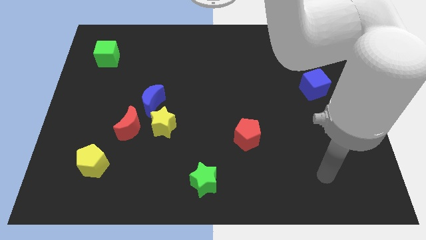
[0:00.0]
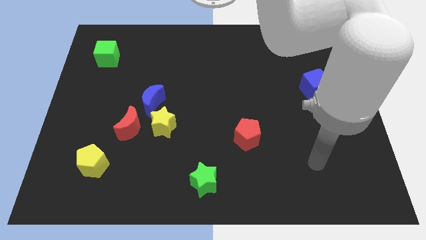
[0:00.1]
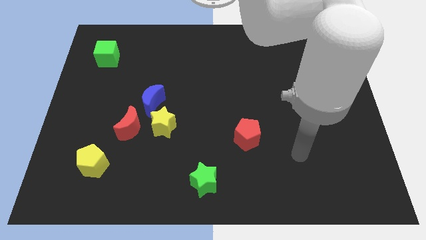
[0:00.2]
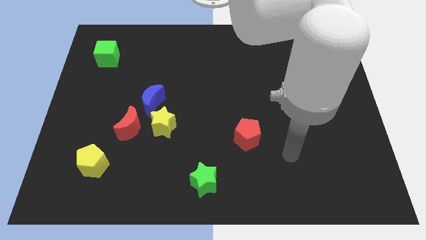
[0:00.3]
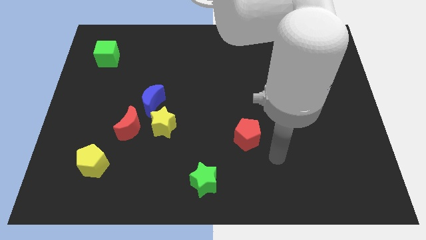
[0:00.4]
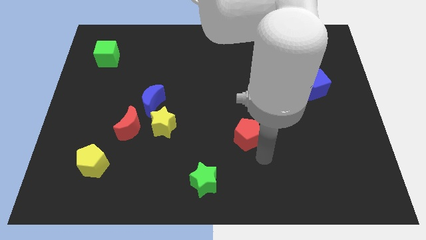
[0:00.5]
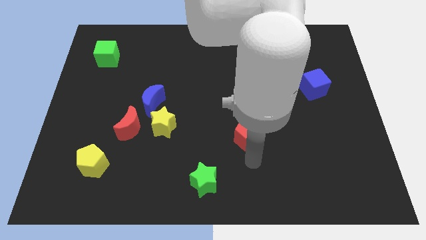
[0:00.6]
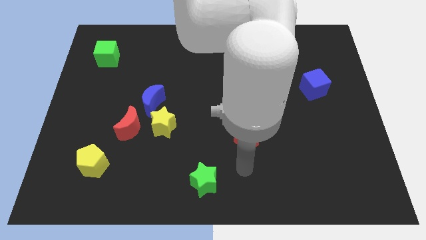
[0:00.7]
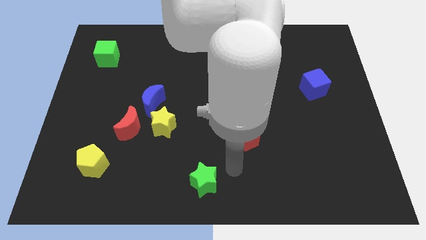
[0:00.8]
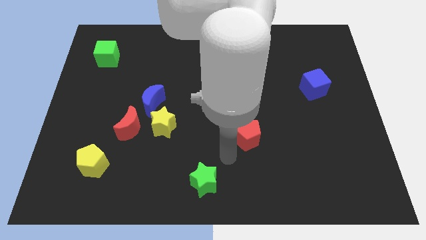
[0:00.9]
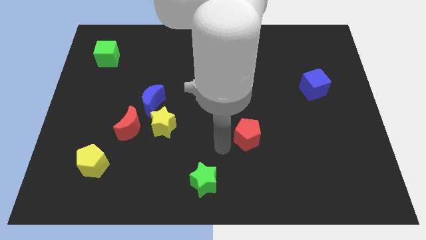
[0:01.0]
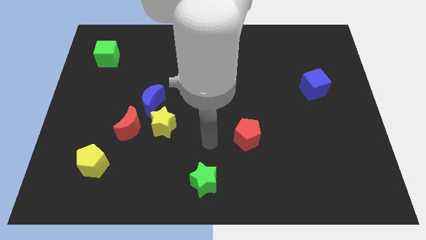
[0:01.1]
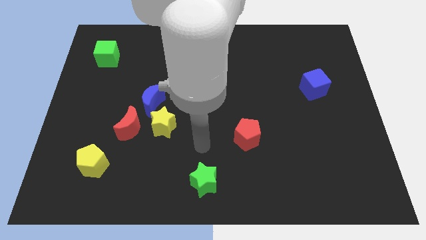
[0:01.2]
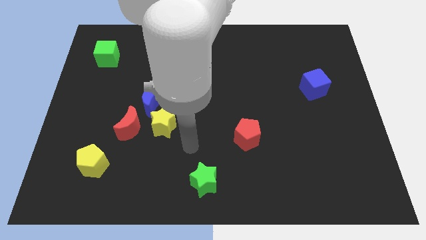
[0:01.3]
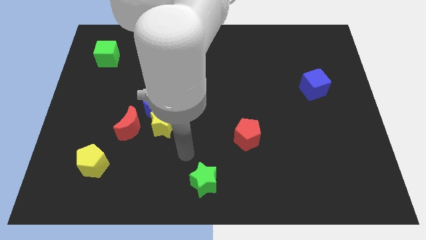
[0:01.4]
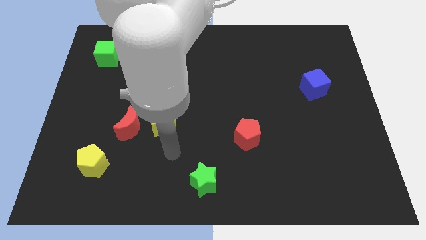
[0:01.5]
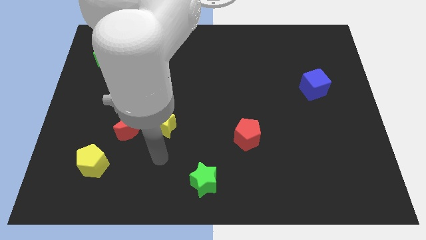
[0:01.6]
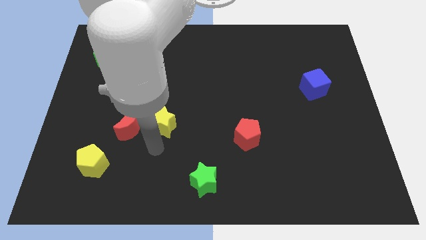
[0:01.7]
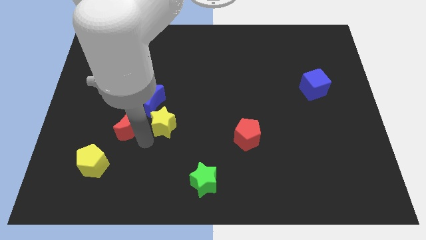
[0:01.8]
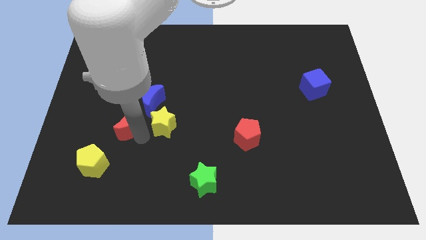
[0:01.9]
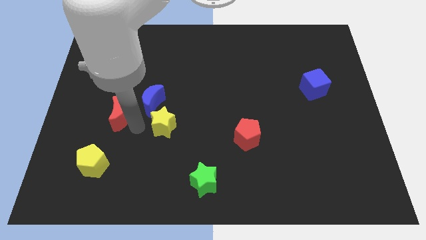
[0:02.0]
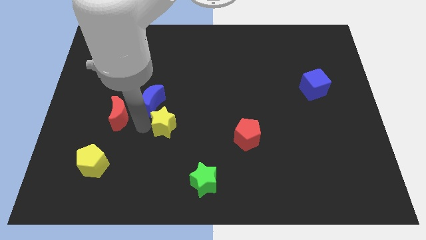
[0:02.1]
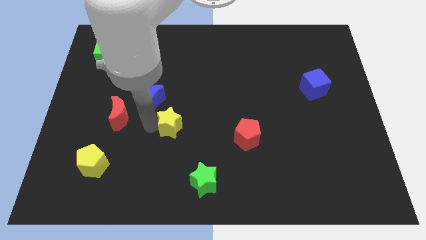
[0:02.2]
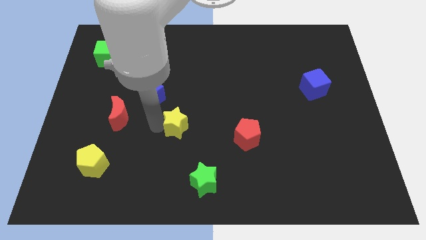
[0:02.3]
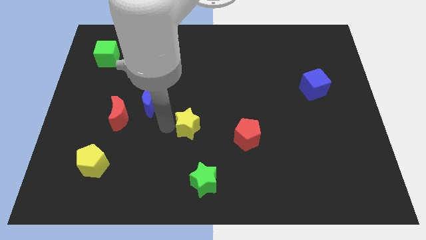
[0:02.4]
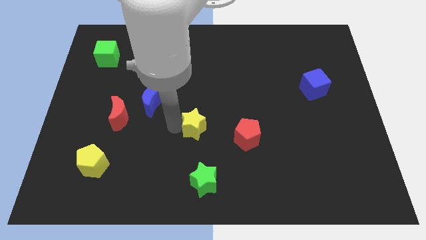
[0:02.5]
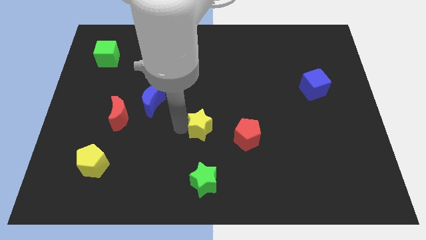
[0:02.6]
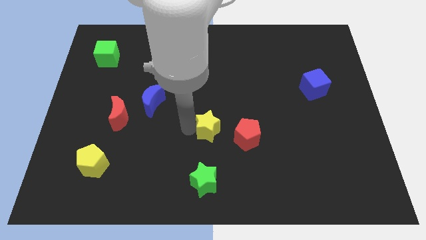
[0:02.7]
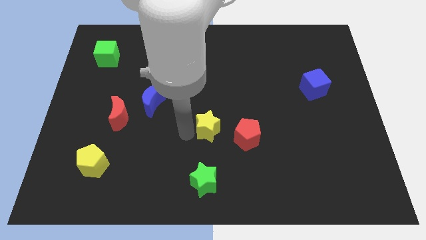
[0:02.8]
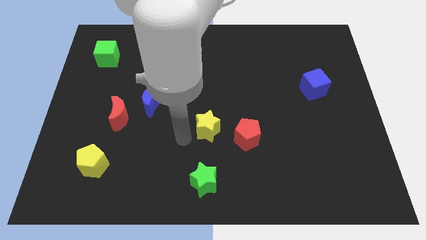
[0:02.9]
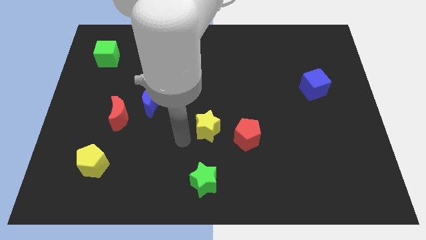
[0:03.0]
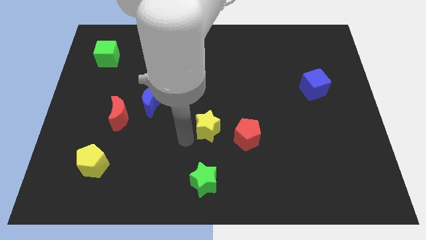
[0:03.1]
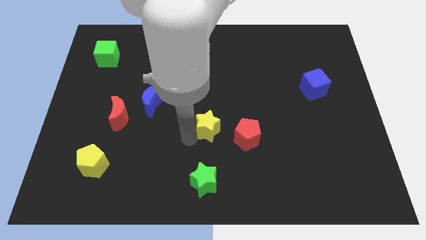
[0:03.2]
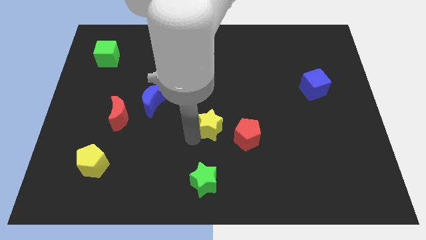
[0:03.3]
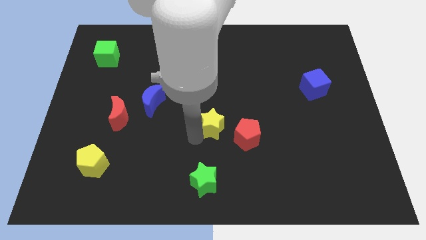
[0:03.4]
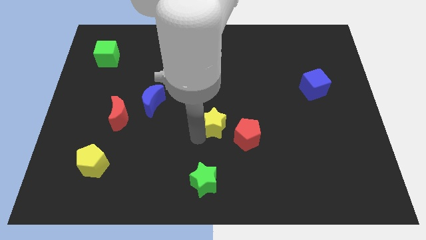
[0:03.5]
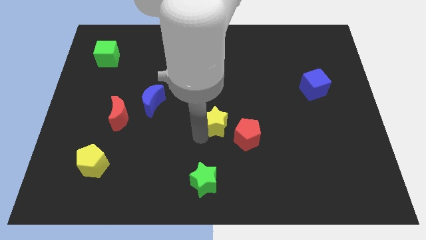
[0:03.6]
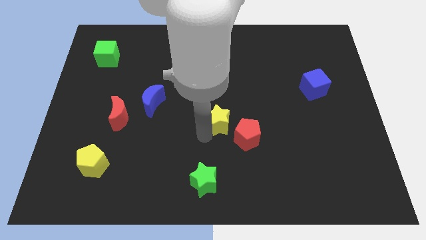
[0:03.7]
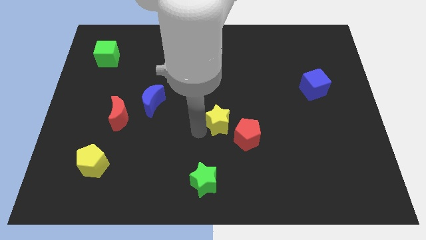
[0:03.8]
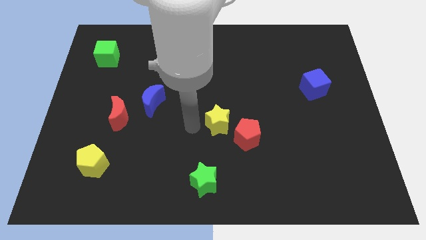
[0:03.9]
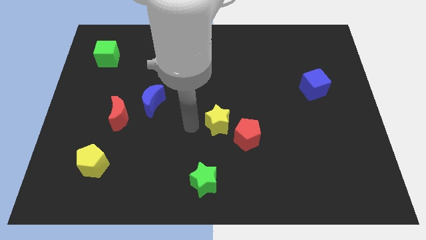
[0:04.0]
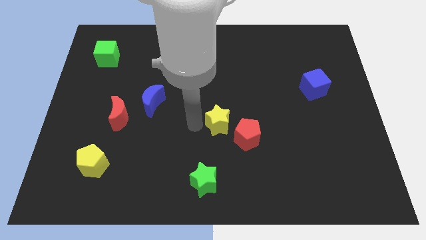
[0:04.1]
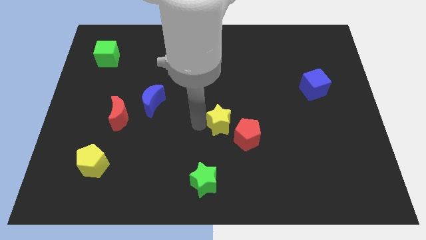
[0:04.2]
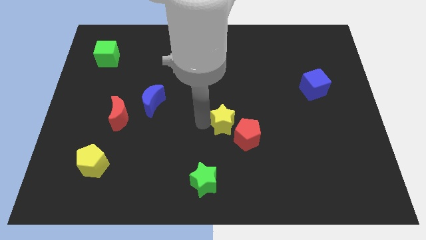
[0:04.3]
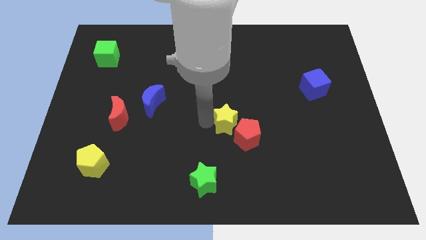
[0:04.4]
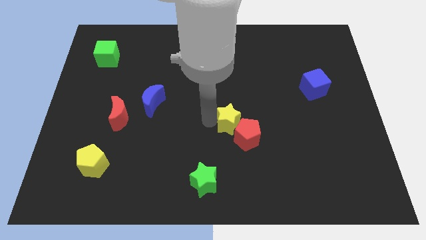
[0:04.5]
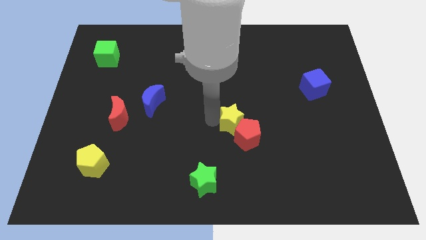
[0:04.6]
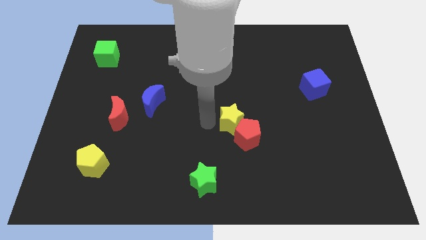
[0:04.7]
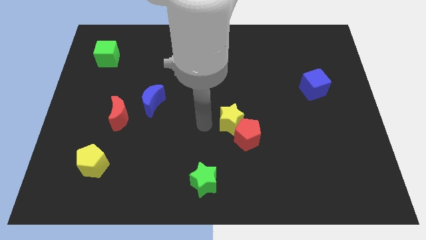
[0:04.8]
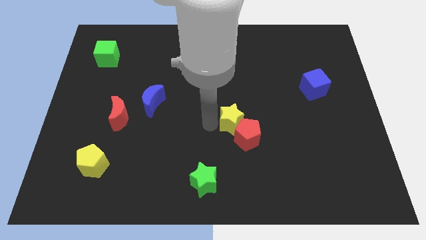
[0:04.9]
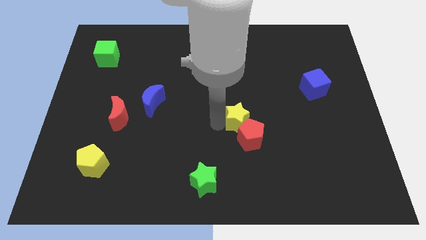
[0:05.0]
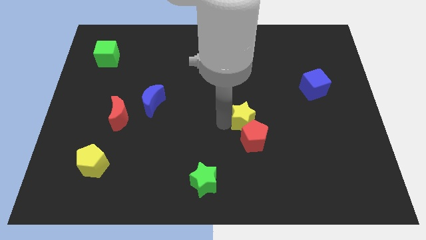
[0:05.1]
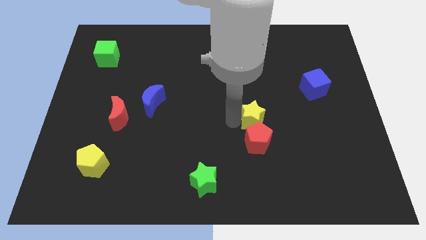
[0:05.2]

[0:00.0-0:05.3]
slide the yellow star to the right

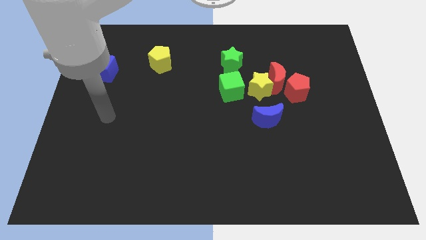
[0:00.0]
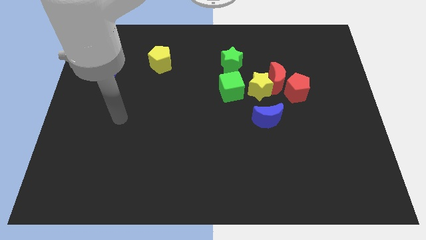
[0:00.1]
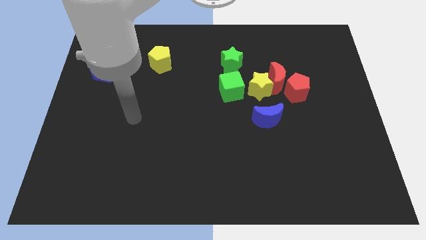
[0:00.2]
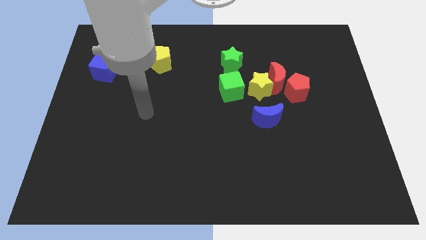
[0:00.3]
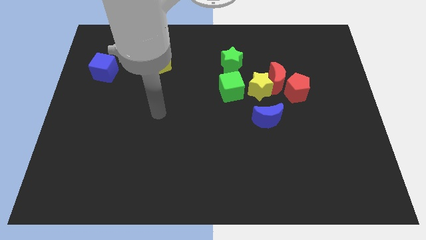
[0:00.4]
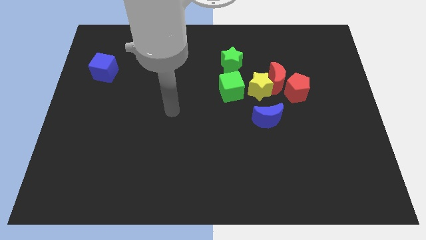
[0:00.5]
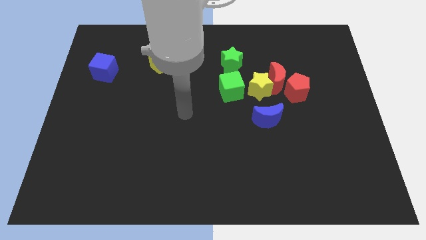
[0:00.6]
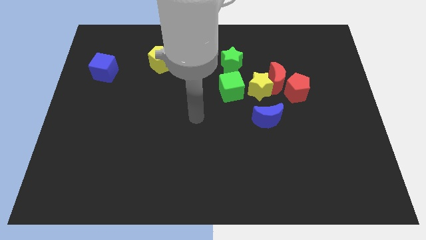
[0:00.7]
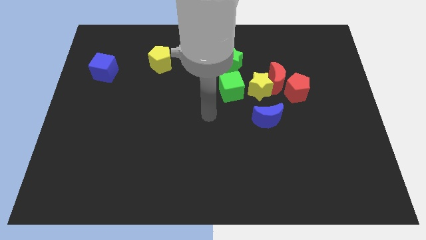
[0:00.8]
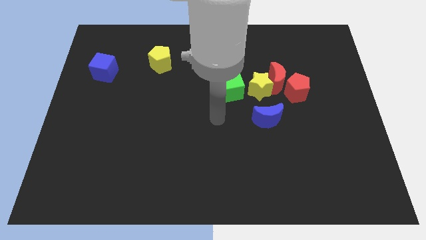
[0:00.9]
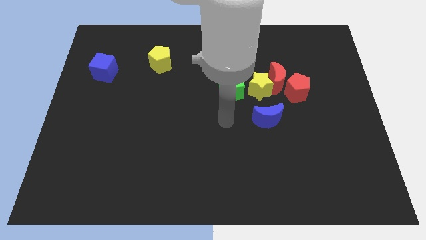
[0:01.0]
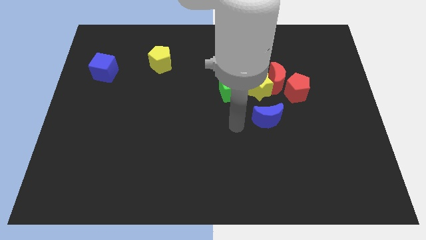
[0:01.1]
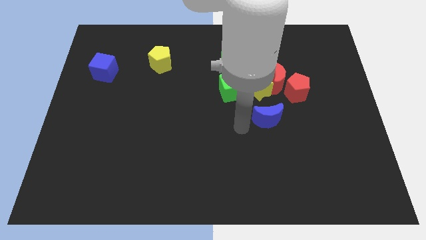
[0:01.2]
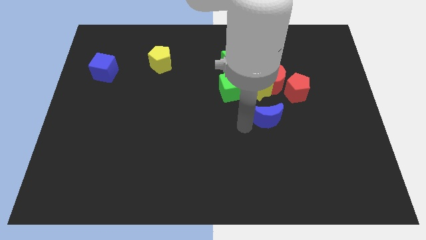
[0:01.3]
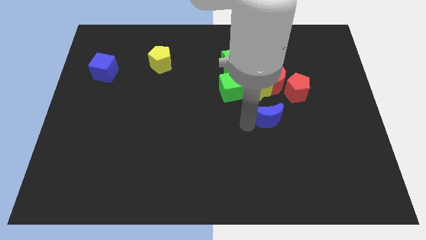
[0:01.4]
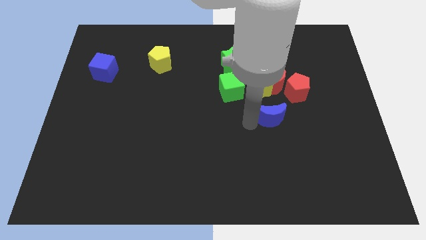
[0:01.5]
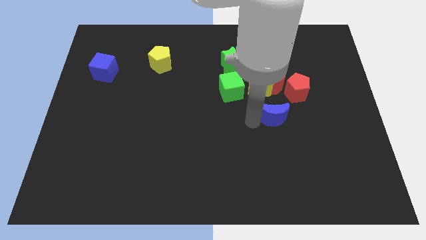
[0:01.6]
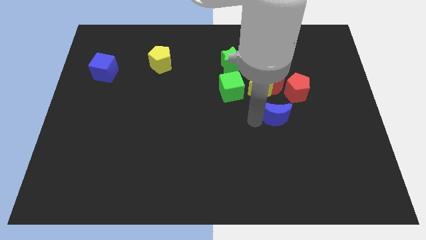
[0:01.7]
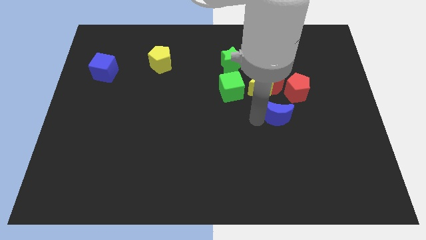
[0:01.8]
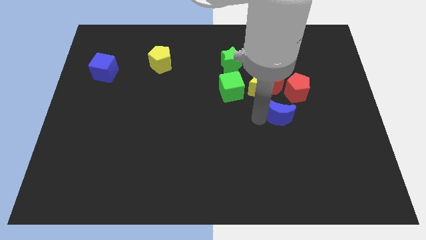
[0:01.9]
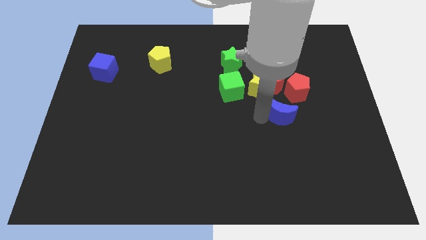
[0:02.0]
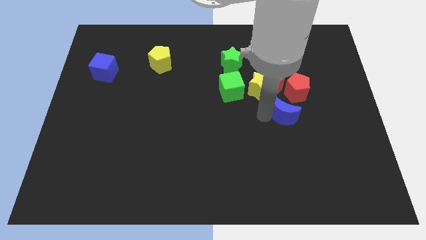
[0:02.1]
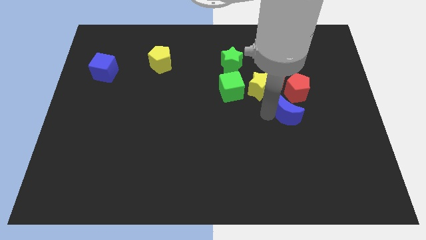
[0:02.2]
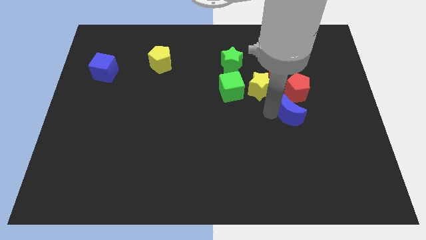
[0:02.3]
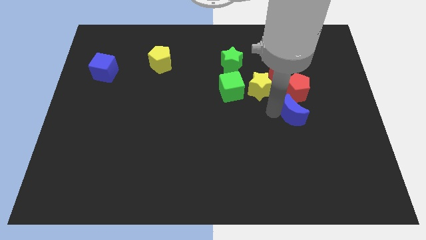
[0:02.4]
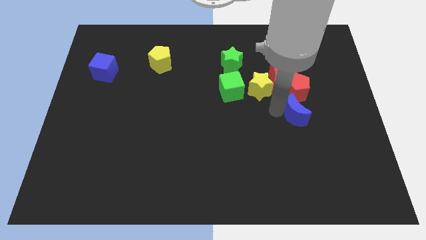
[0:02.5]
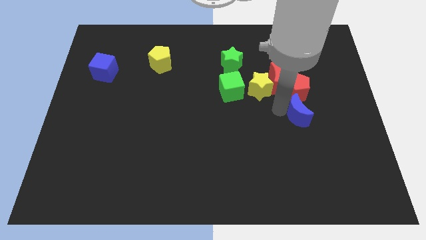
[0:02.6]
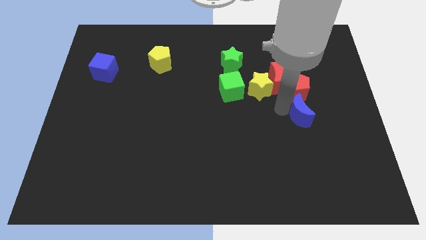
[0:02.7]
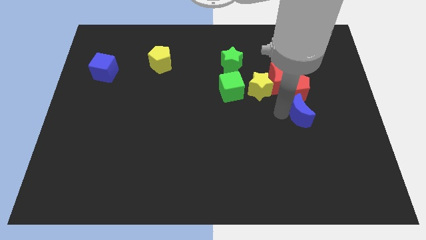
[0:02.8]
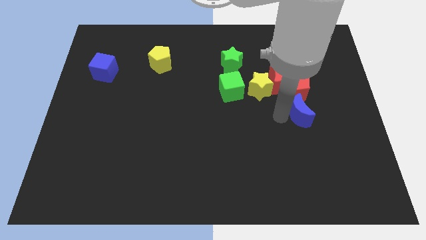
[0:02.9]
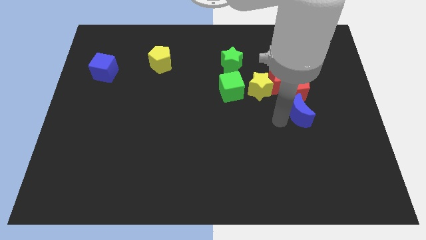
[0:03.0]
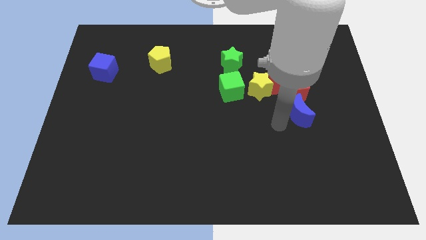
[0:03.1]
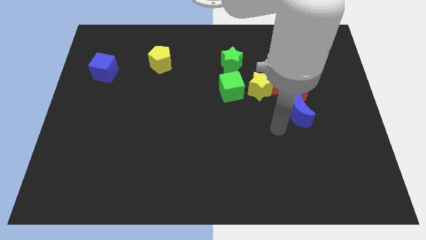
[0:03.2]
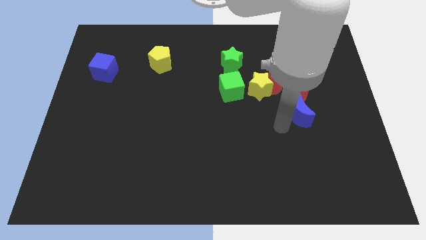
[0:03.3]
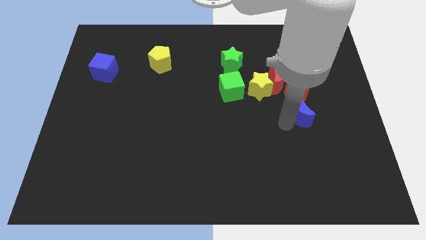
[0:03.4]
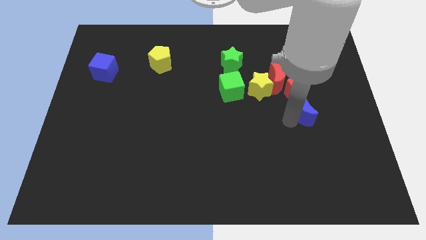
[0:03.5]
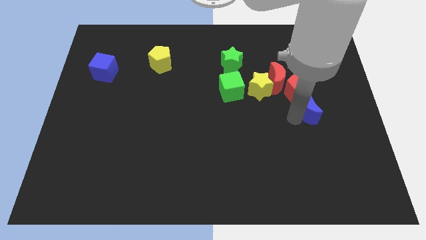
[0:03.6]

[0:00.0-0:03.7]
slide the blue moon somewhat up and right diagonally
